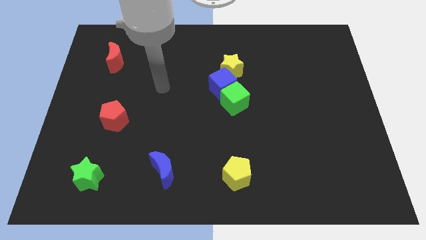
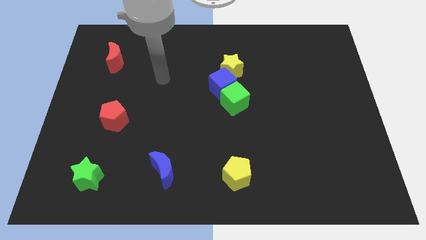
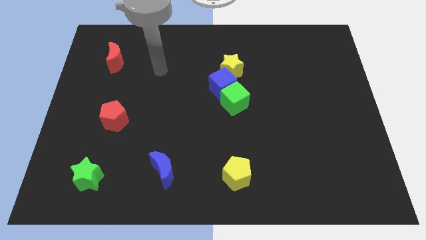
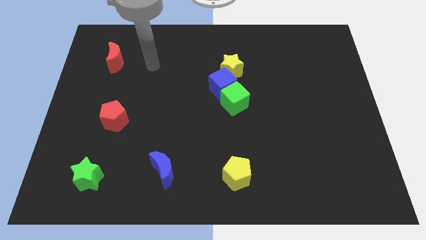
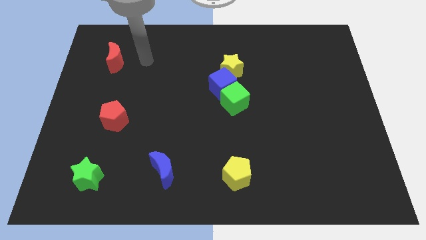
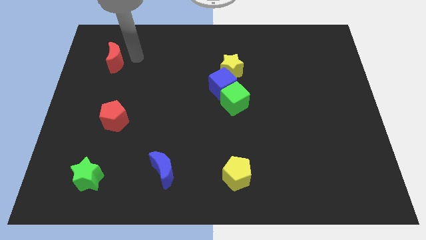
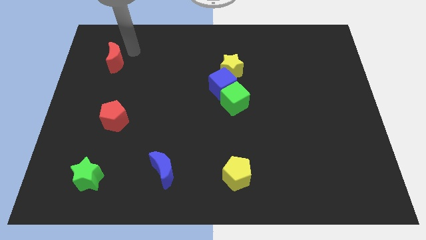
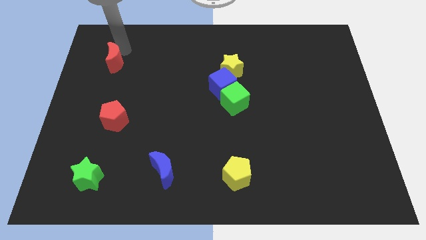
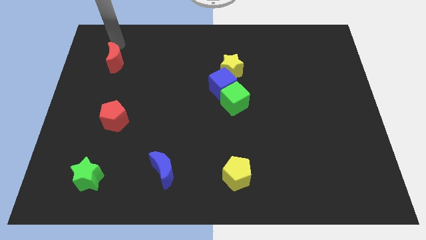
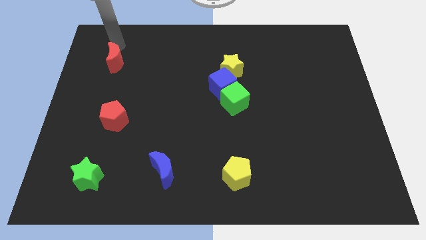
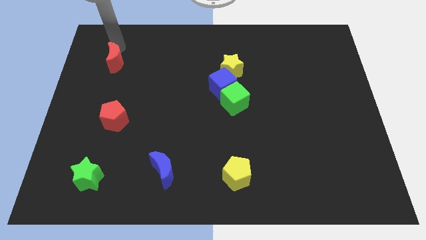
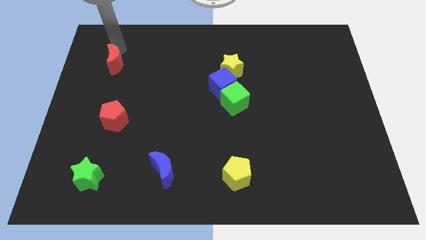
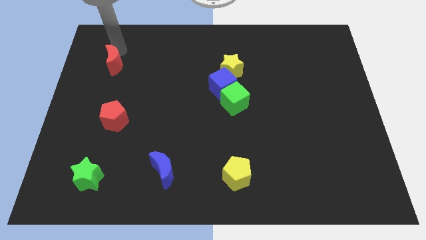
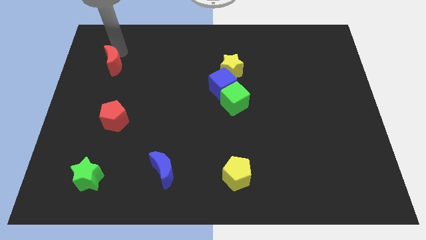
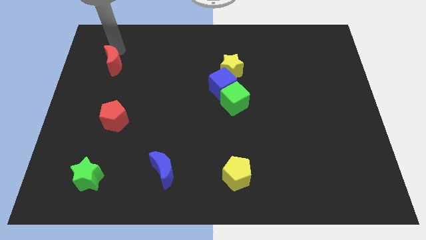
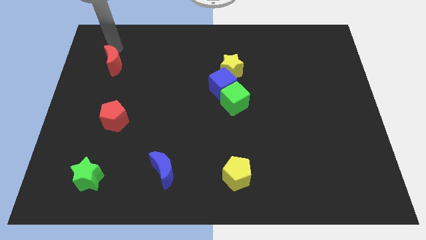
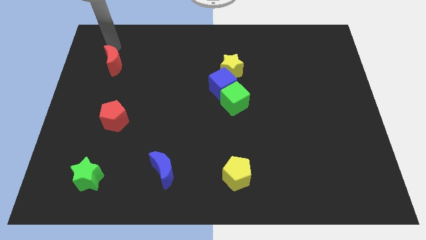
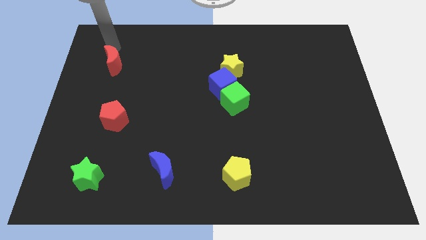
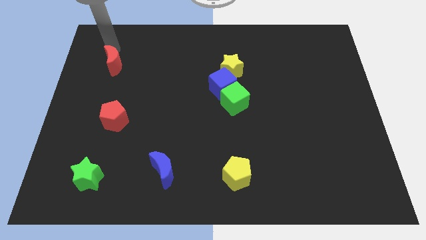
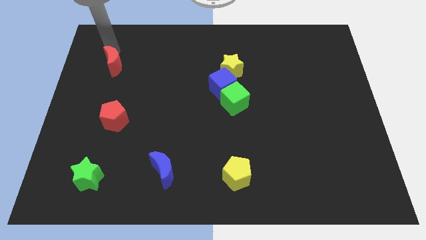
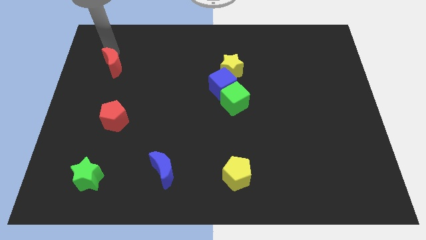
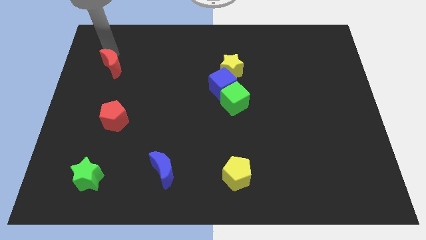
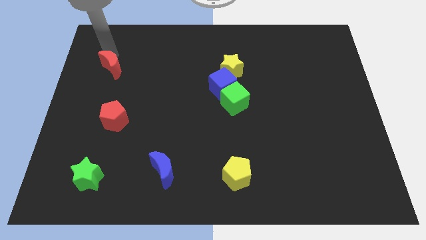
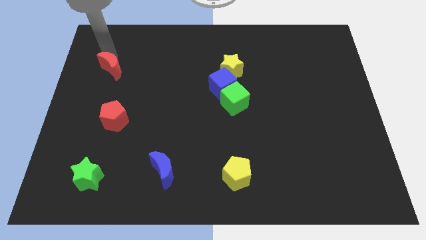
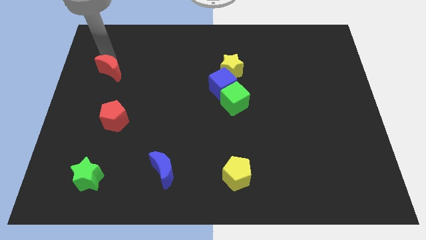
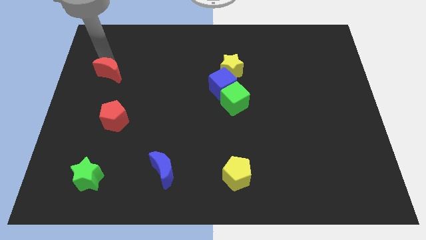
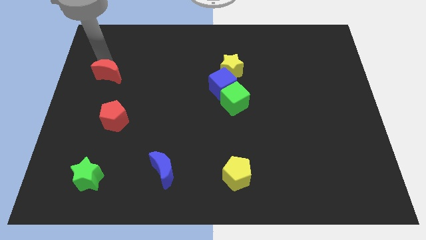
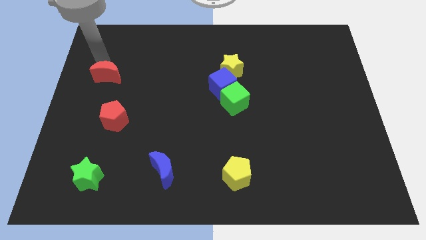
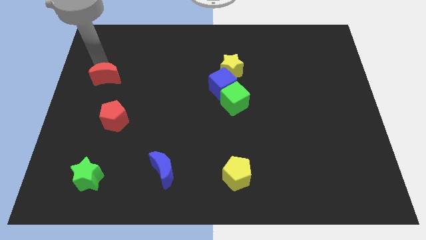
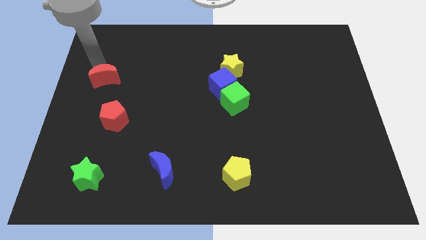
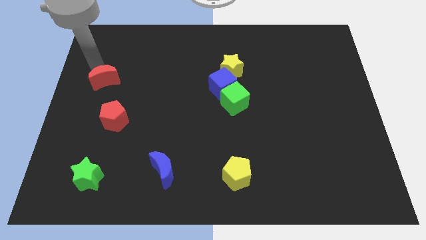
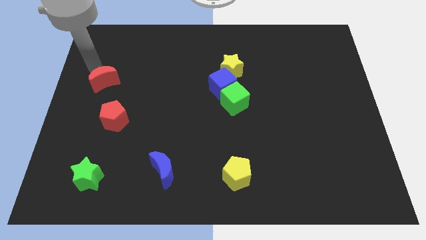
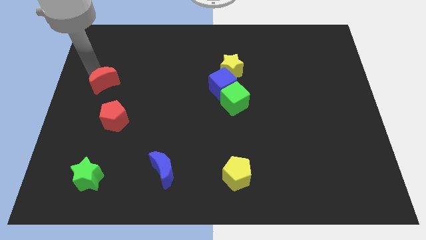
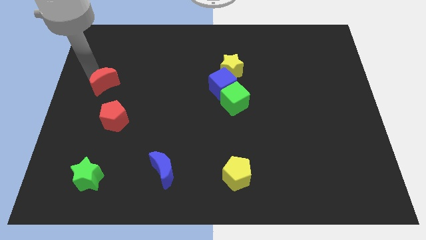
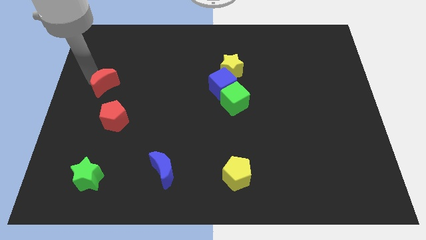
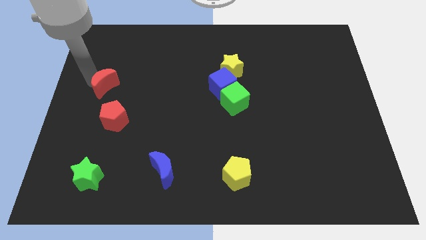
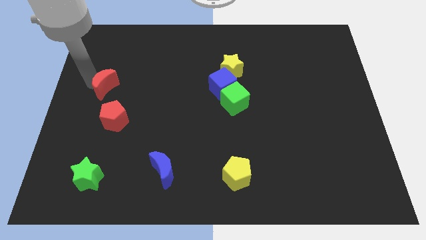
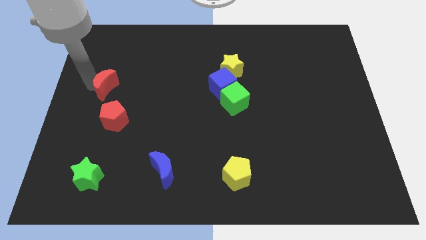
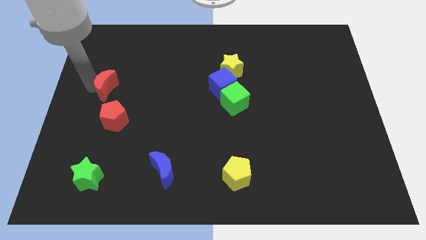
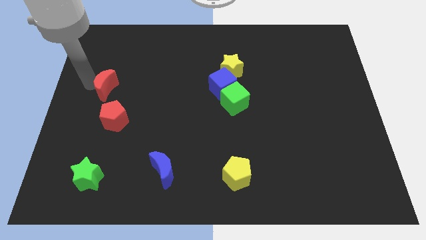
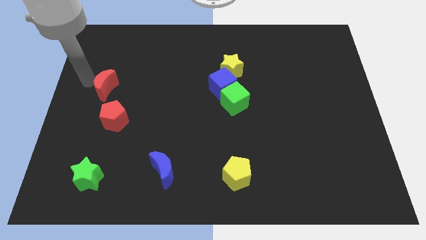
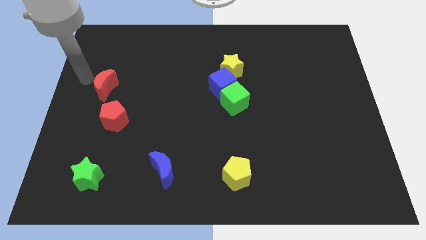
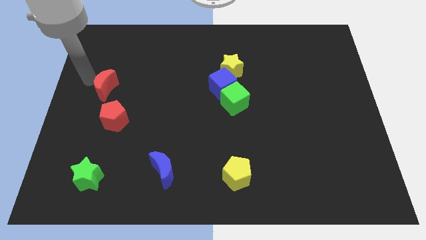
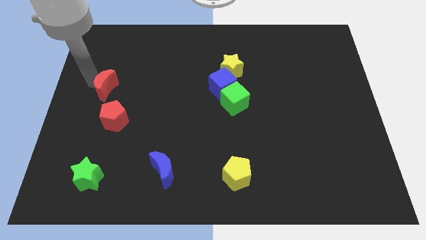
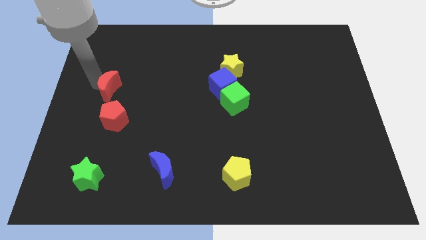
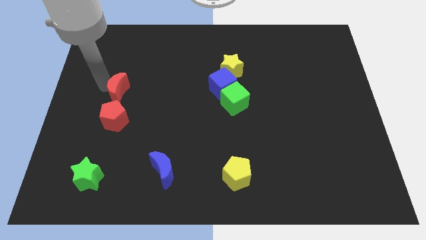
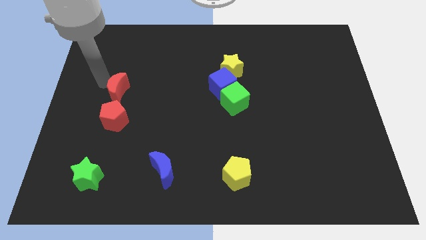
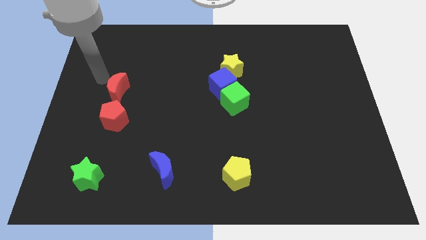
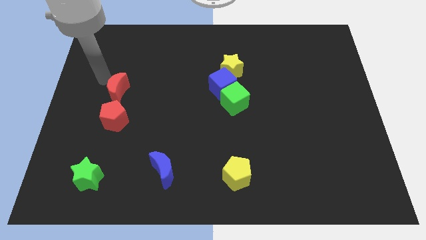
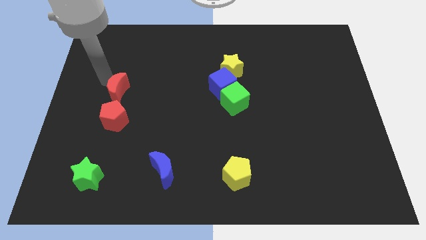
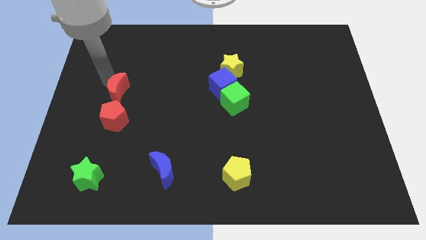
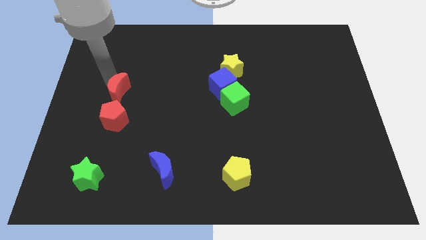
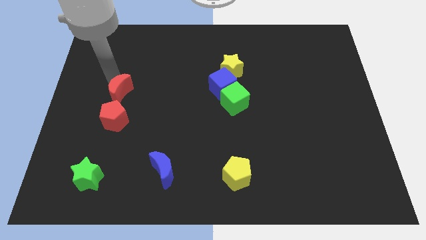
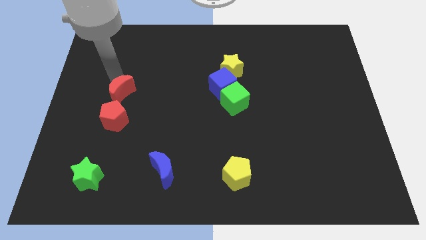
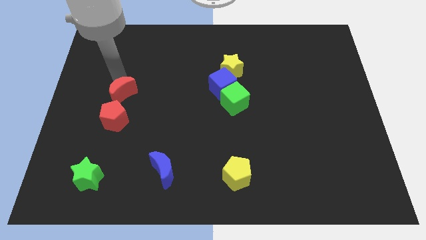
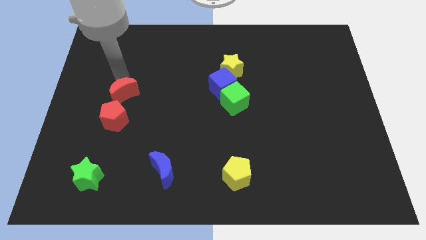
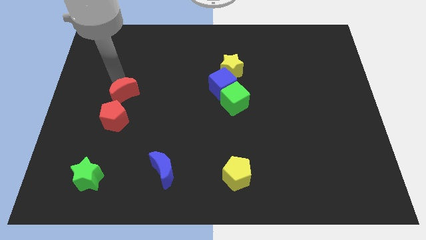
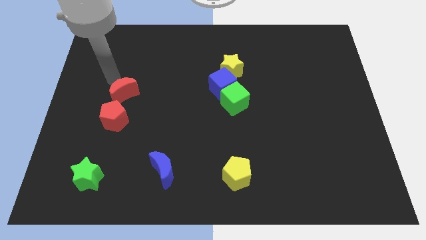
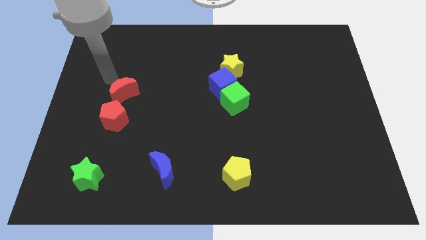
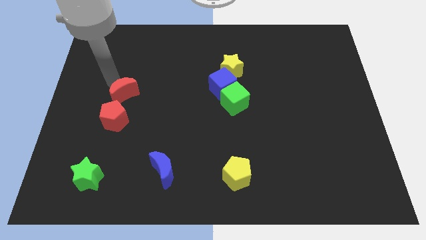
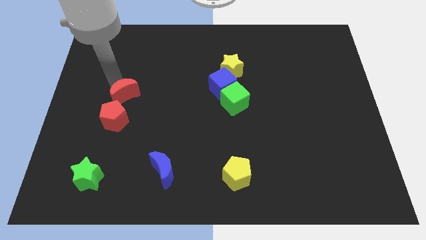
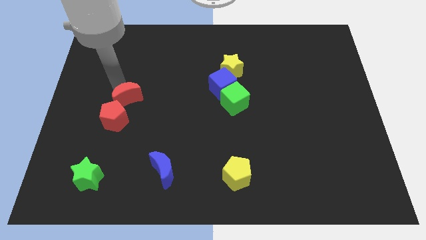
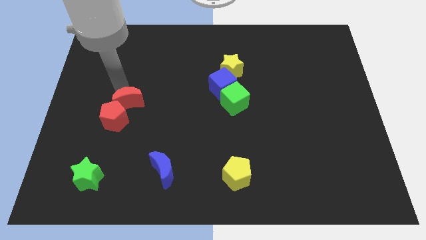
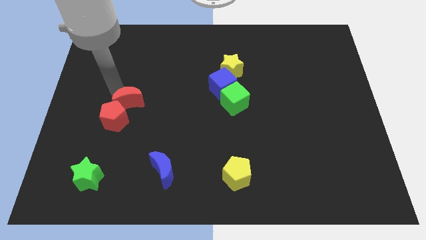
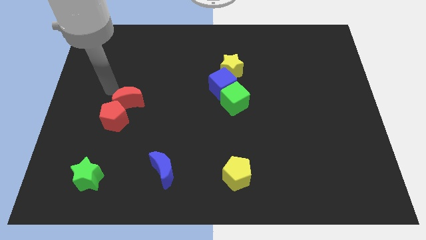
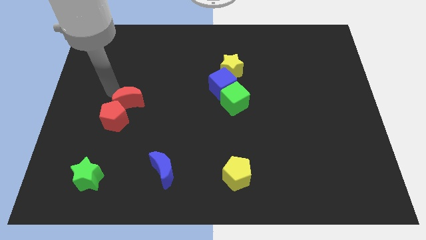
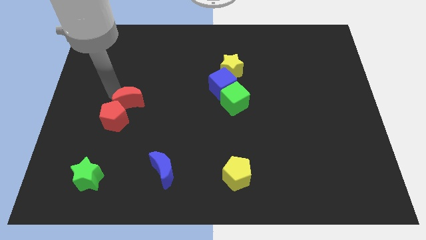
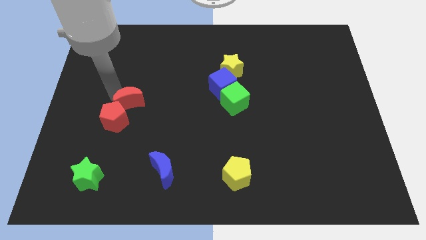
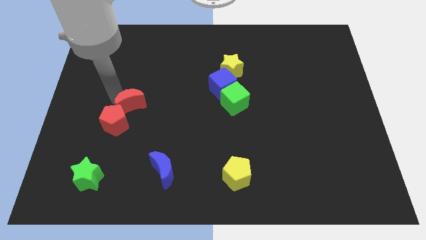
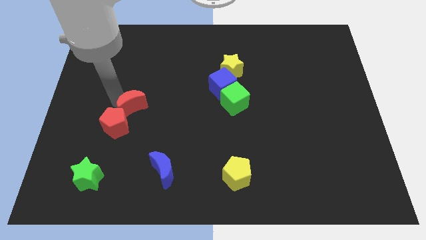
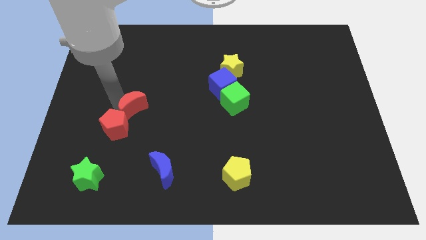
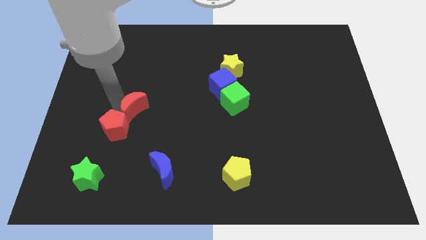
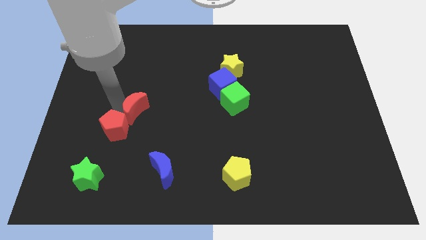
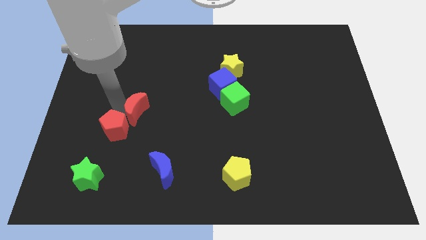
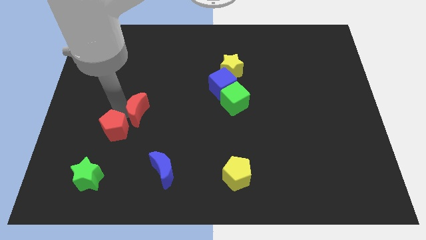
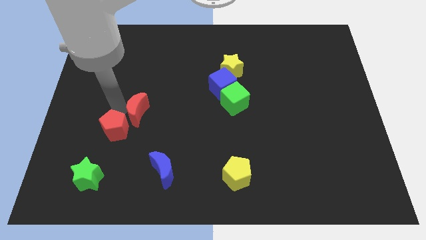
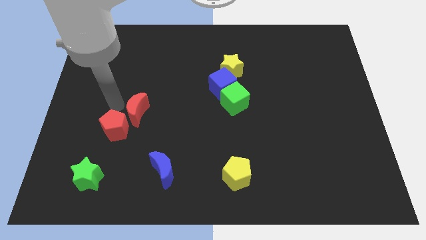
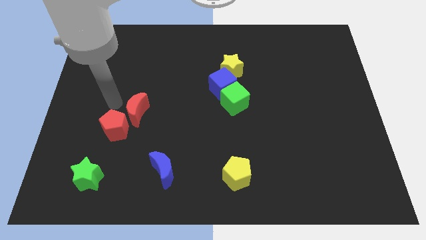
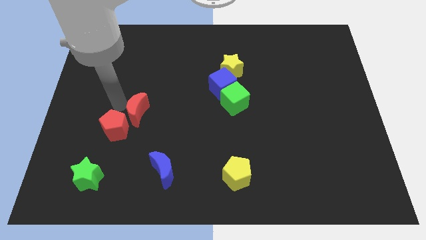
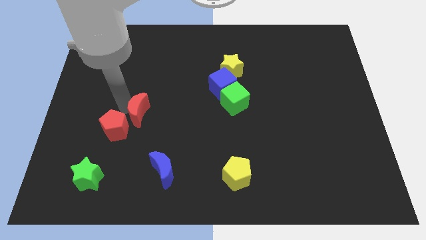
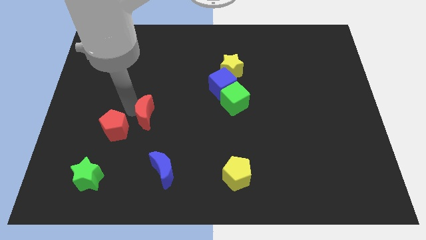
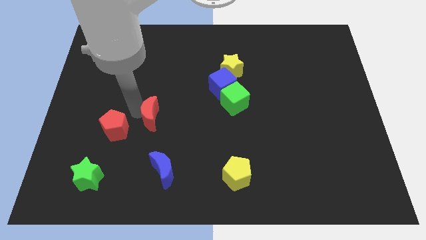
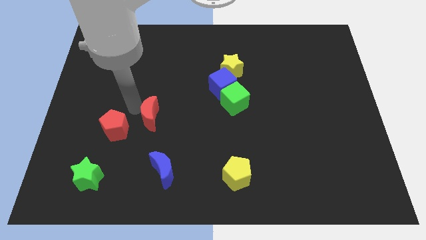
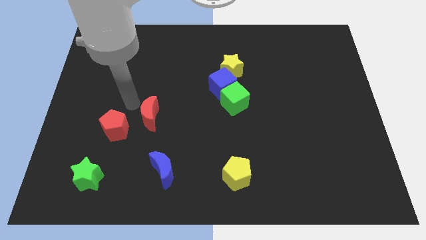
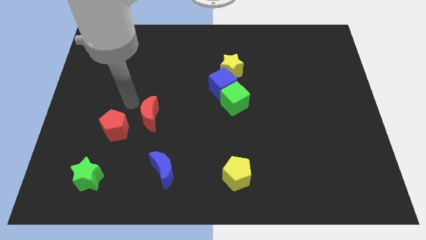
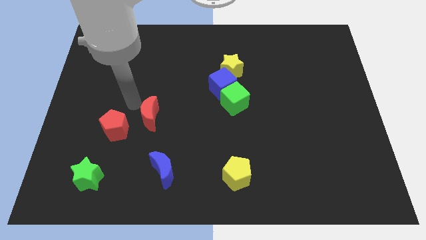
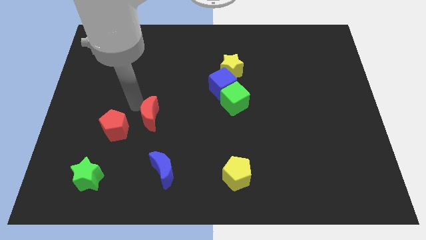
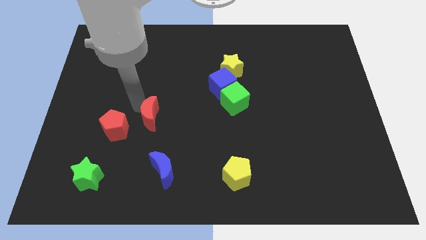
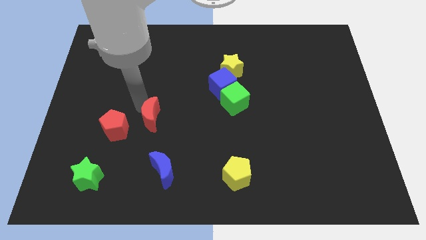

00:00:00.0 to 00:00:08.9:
push the red moon to the top of the blue moon
